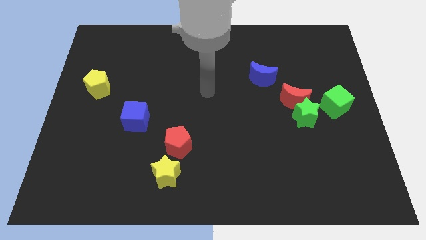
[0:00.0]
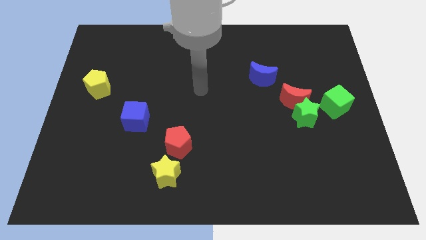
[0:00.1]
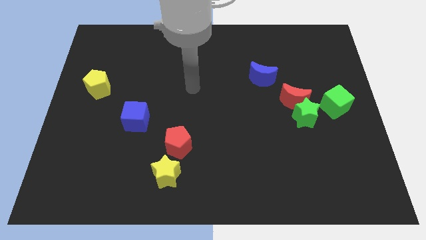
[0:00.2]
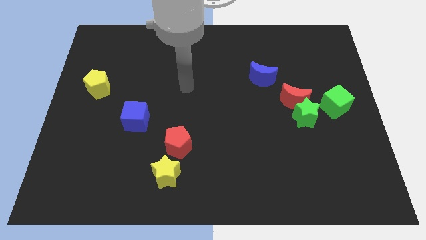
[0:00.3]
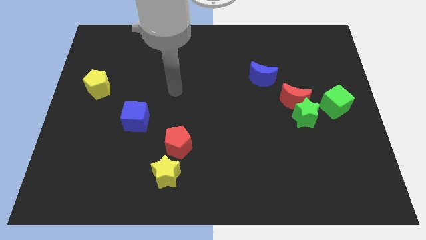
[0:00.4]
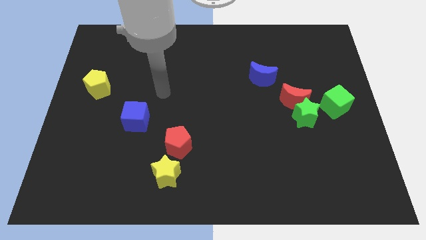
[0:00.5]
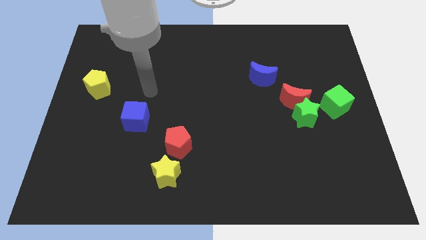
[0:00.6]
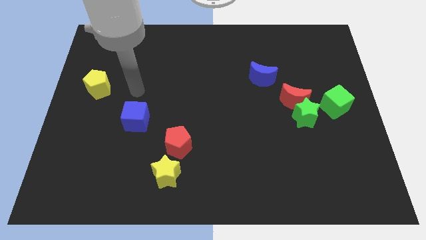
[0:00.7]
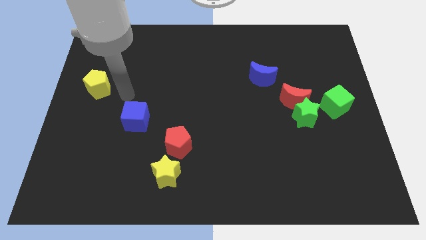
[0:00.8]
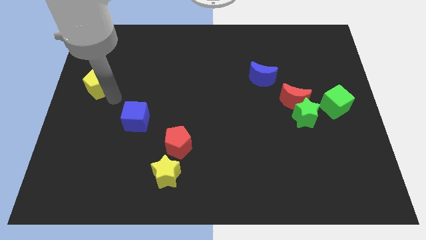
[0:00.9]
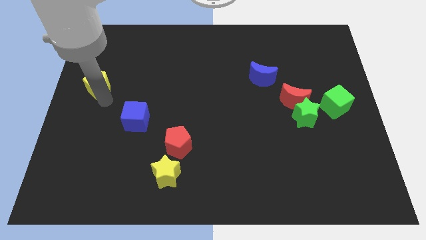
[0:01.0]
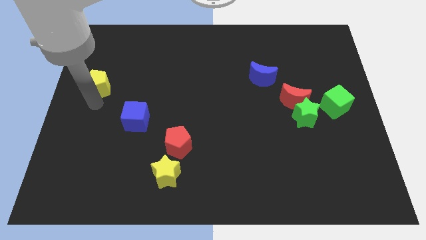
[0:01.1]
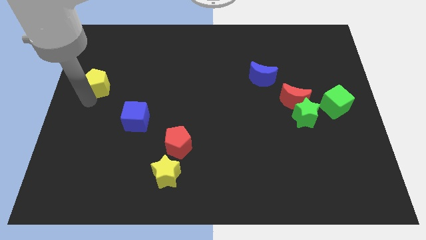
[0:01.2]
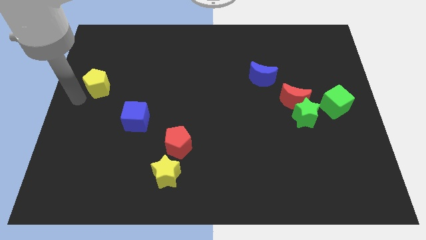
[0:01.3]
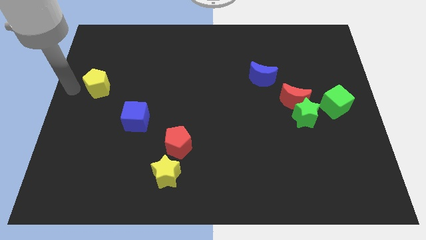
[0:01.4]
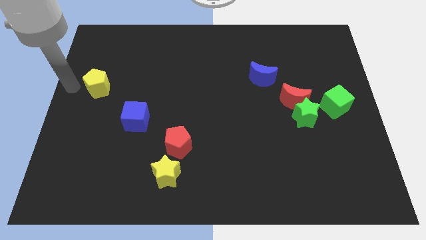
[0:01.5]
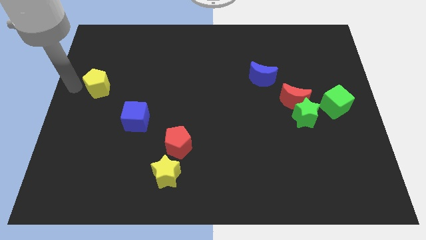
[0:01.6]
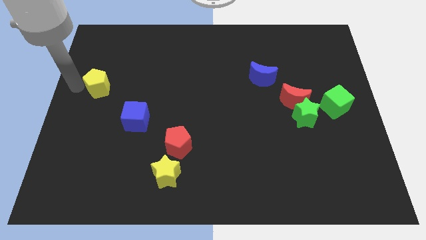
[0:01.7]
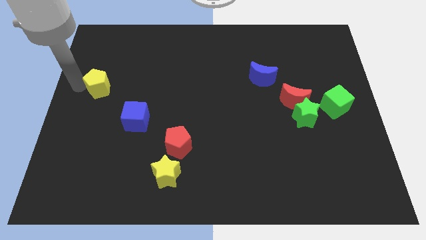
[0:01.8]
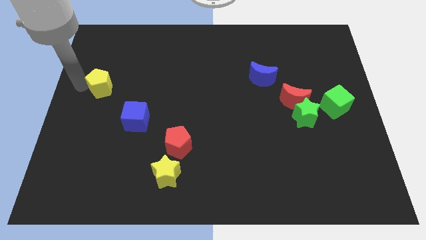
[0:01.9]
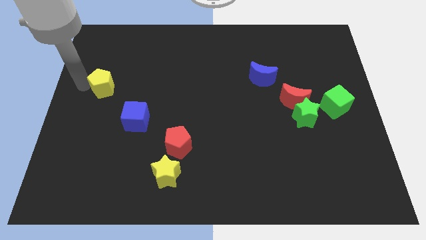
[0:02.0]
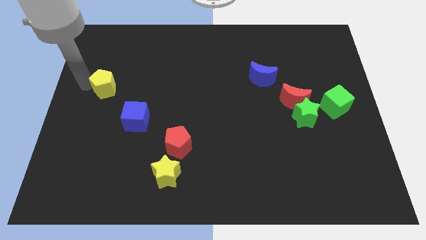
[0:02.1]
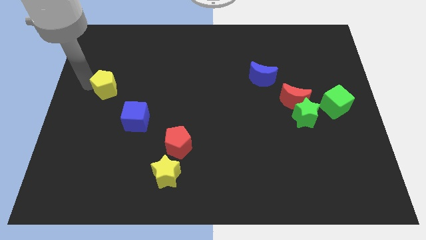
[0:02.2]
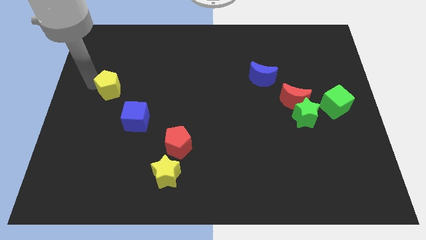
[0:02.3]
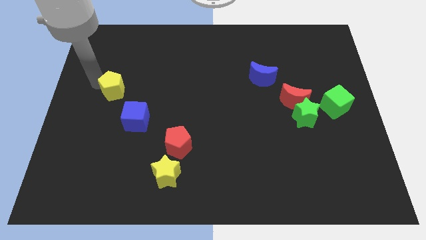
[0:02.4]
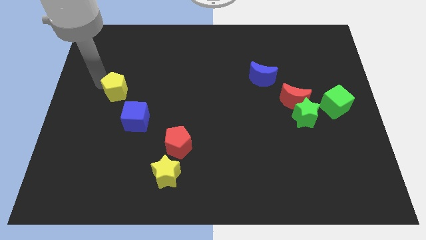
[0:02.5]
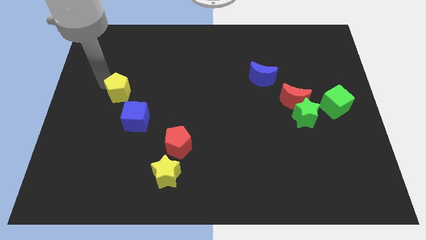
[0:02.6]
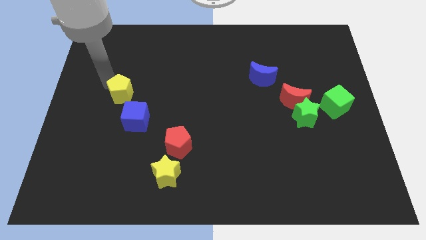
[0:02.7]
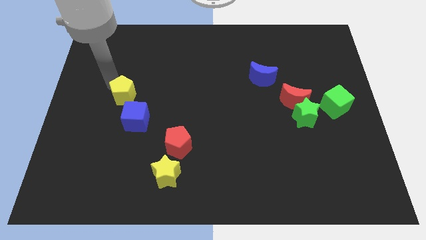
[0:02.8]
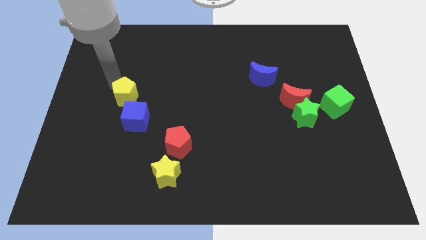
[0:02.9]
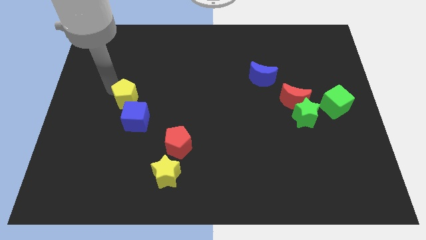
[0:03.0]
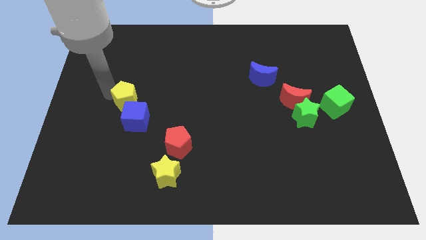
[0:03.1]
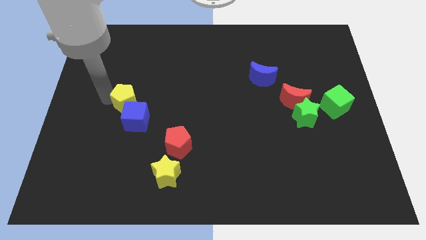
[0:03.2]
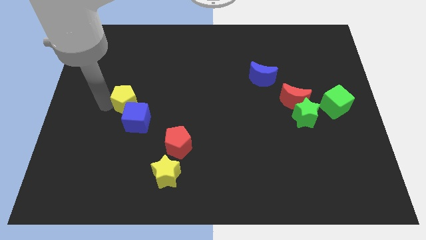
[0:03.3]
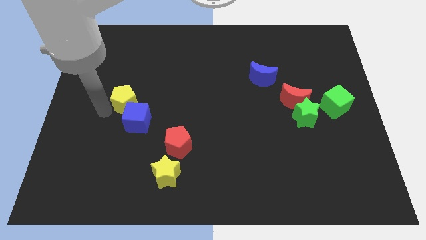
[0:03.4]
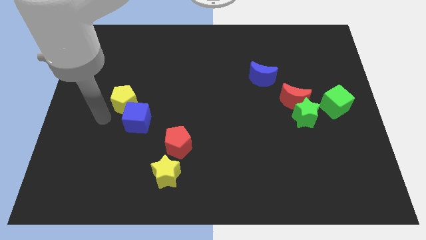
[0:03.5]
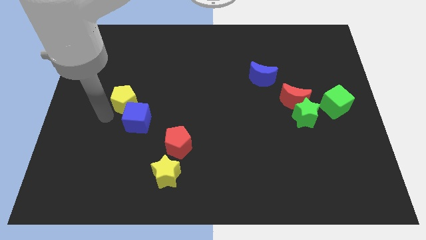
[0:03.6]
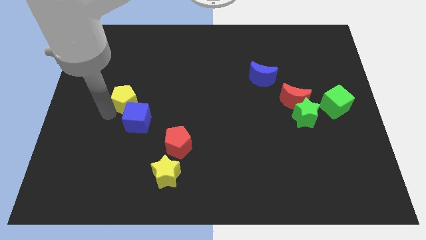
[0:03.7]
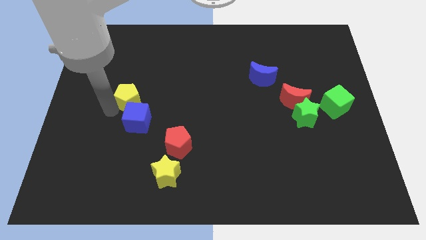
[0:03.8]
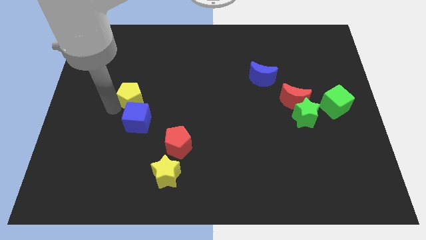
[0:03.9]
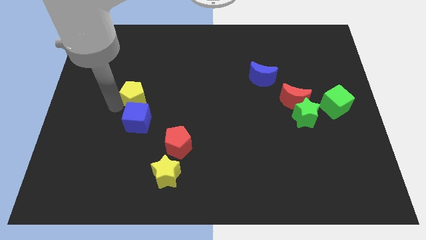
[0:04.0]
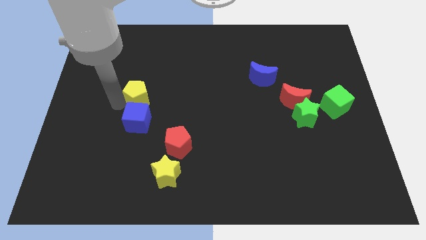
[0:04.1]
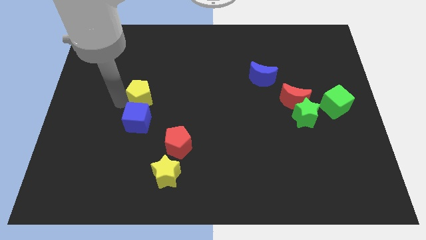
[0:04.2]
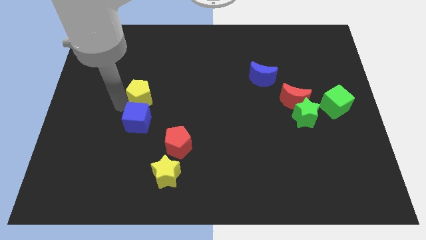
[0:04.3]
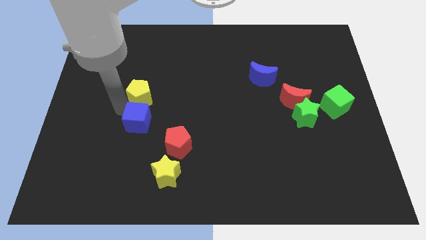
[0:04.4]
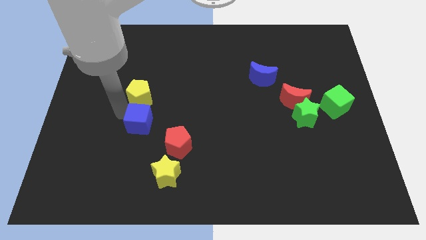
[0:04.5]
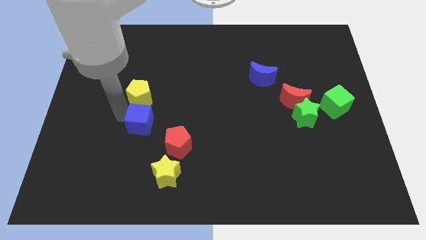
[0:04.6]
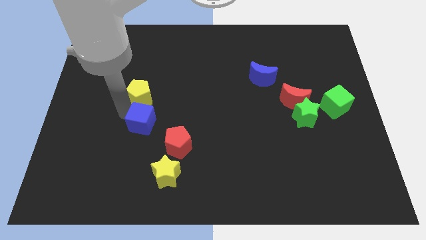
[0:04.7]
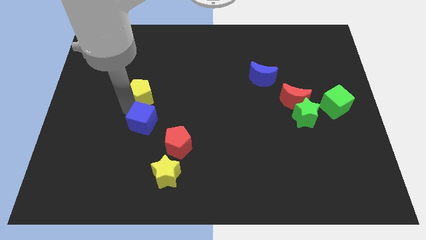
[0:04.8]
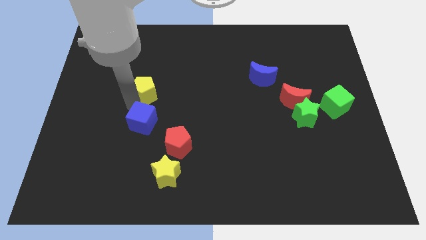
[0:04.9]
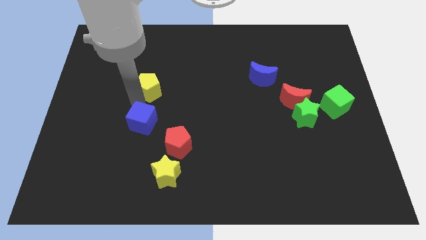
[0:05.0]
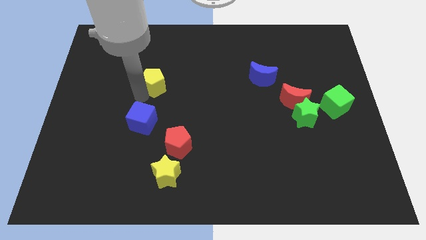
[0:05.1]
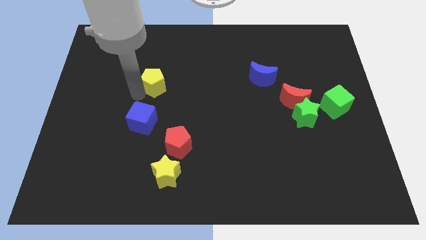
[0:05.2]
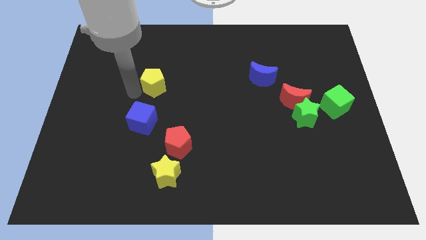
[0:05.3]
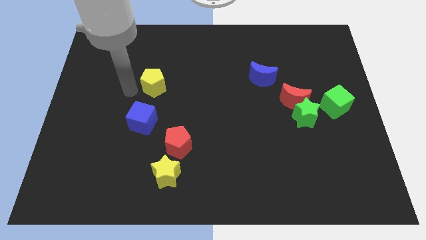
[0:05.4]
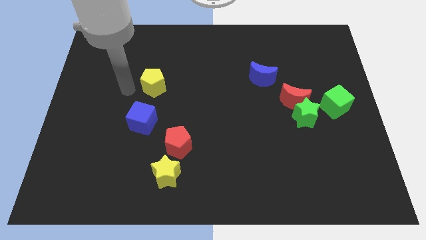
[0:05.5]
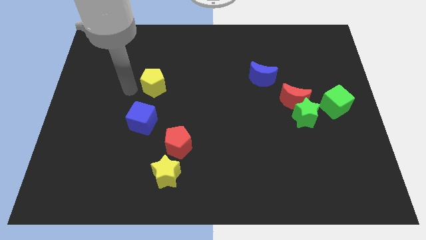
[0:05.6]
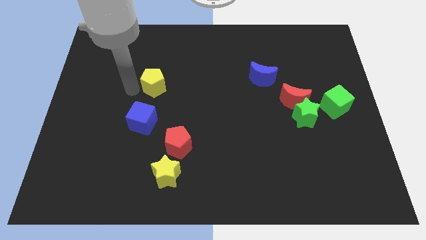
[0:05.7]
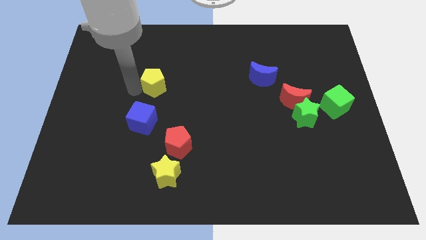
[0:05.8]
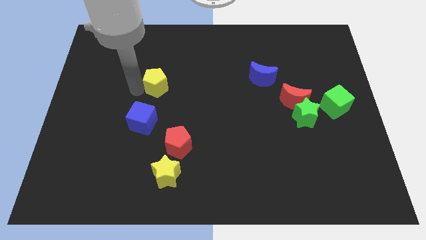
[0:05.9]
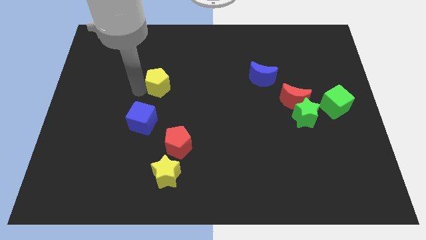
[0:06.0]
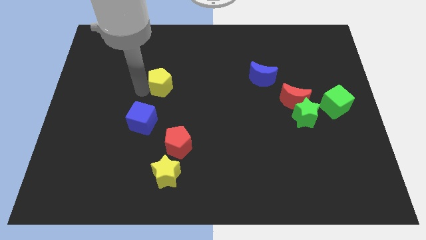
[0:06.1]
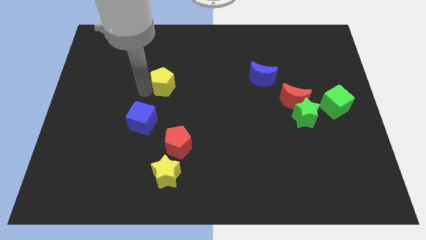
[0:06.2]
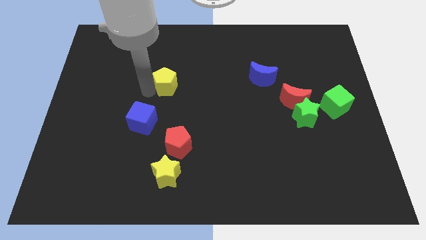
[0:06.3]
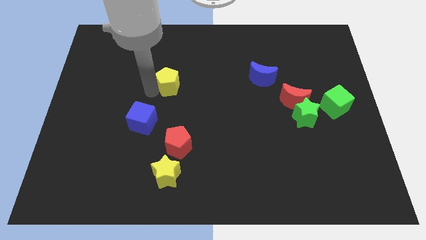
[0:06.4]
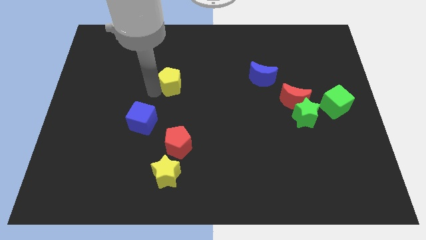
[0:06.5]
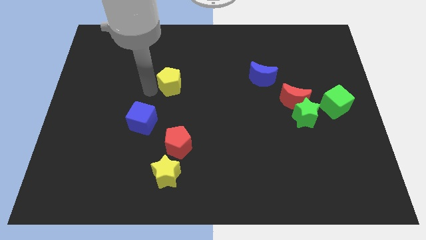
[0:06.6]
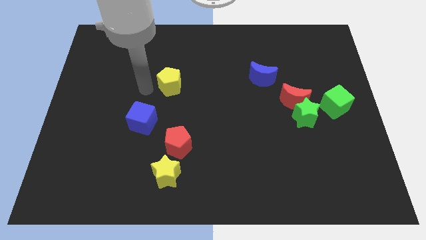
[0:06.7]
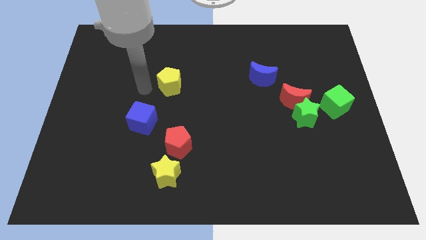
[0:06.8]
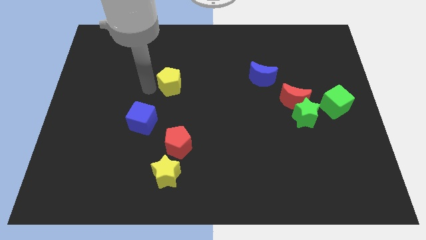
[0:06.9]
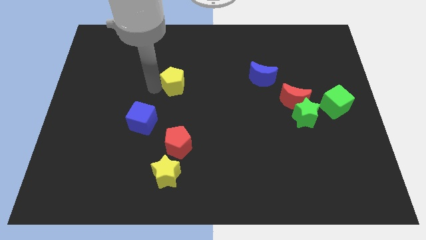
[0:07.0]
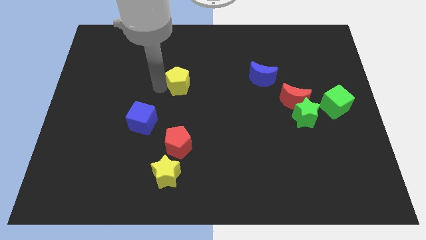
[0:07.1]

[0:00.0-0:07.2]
move the yellow pentagon to the right

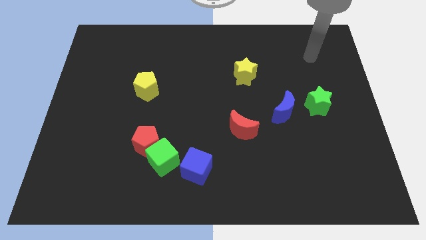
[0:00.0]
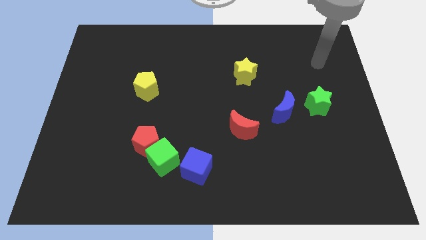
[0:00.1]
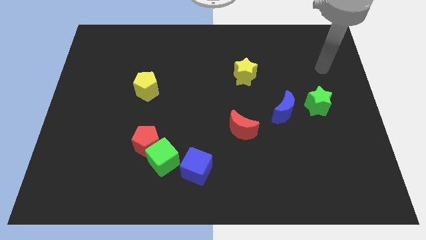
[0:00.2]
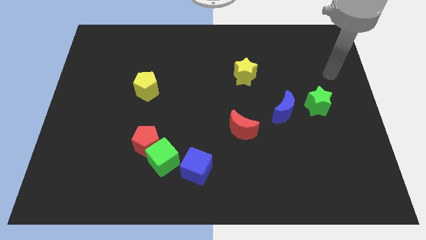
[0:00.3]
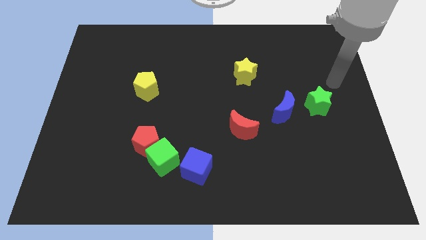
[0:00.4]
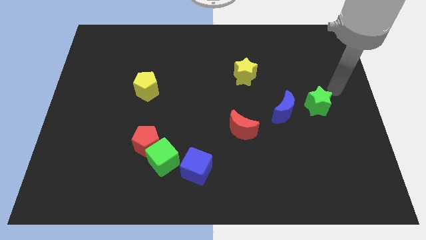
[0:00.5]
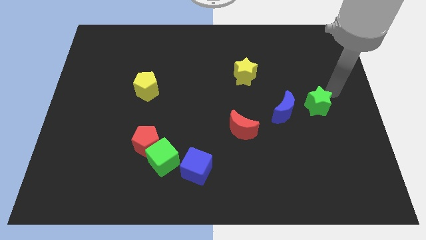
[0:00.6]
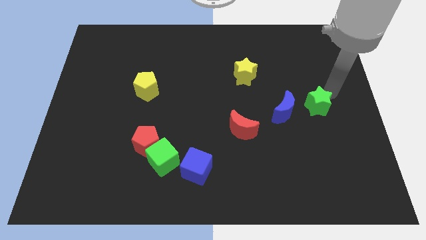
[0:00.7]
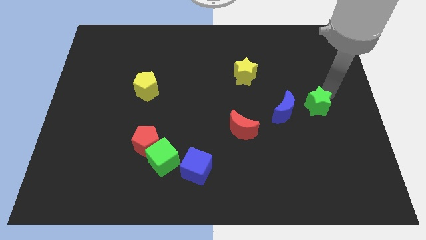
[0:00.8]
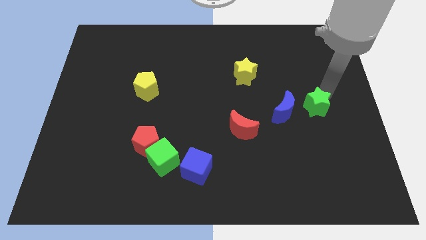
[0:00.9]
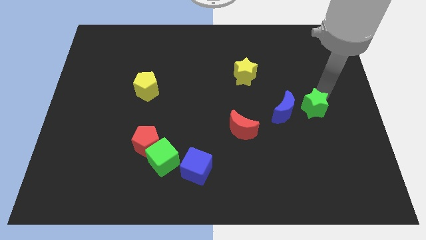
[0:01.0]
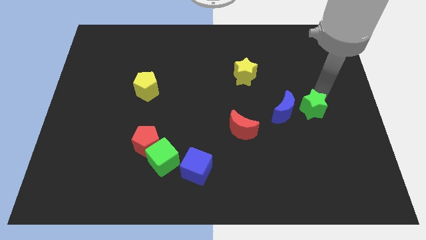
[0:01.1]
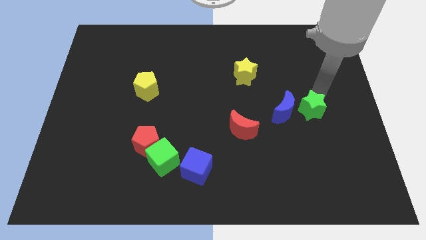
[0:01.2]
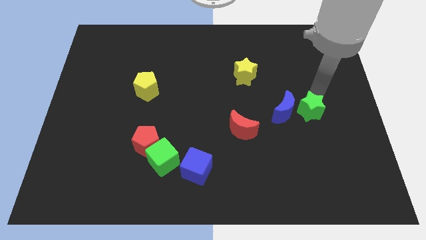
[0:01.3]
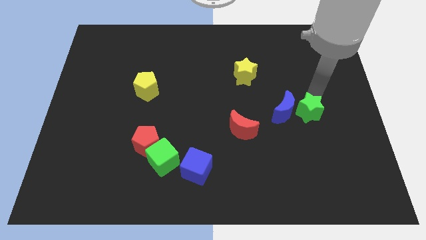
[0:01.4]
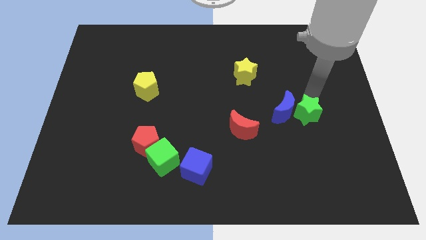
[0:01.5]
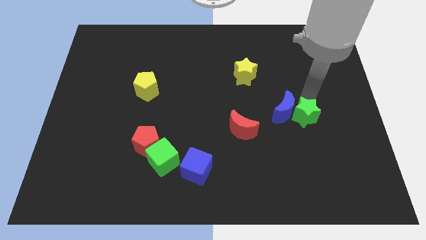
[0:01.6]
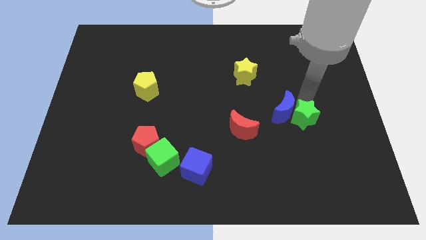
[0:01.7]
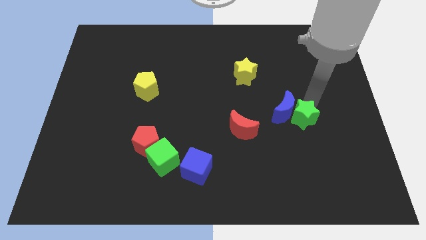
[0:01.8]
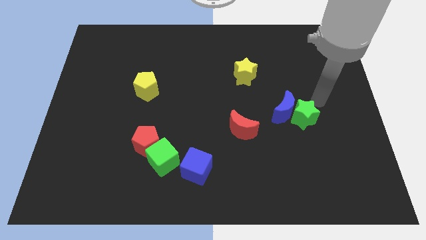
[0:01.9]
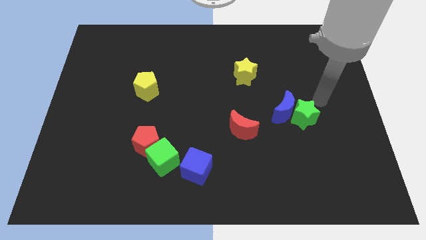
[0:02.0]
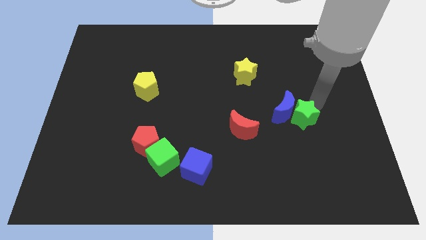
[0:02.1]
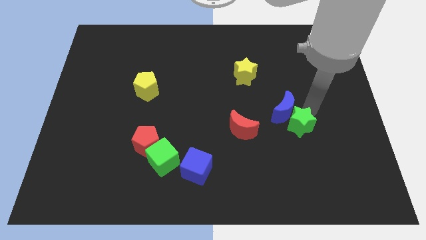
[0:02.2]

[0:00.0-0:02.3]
slide the green star a bit diagonally downwards and left
